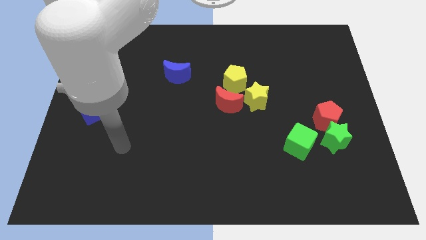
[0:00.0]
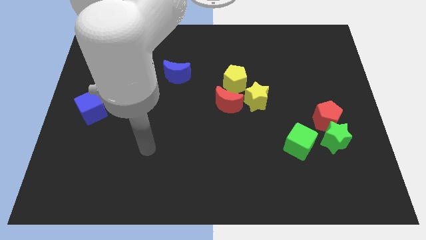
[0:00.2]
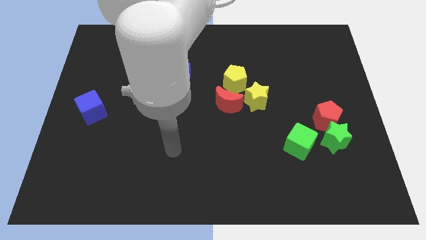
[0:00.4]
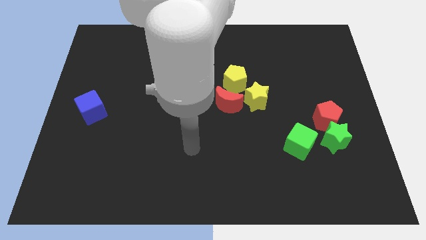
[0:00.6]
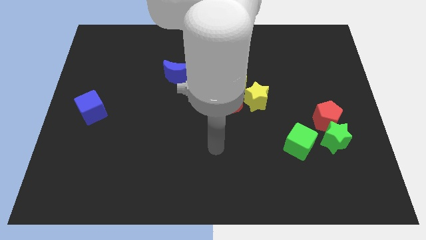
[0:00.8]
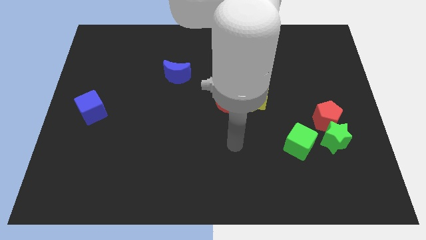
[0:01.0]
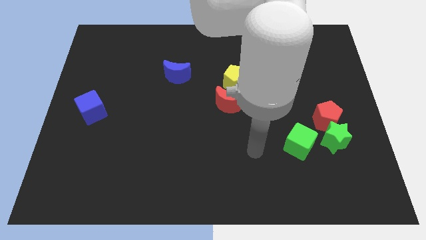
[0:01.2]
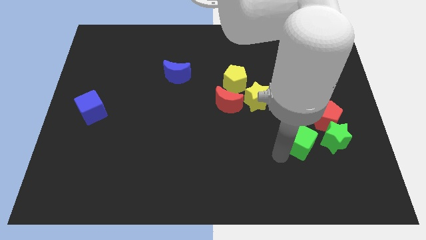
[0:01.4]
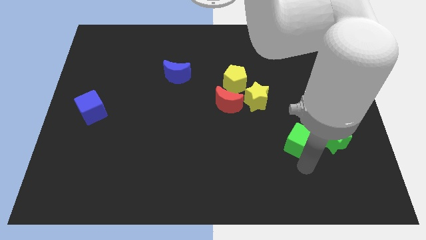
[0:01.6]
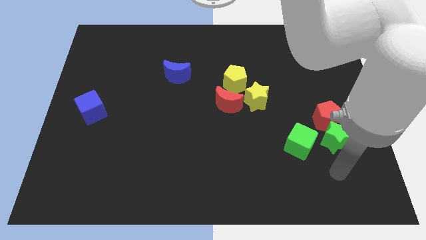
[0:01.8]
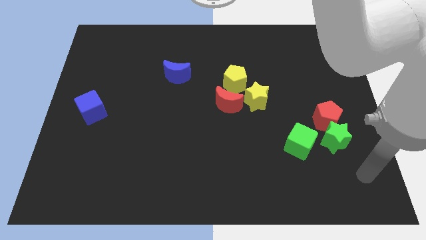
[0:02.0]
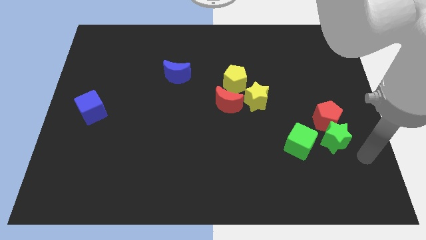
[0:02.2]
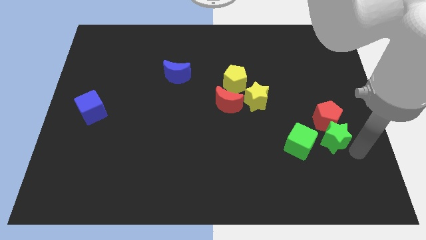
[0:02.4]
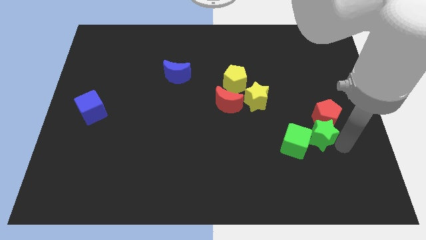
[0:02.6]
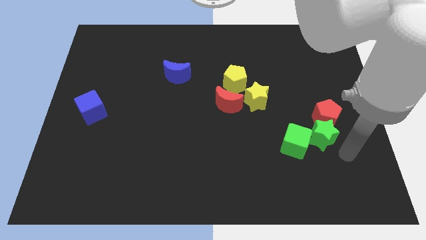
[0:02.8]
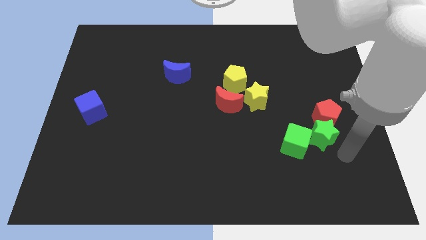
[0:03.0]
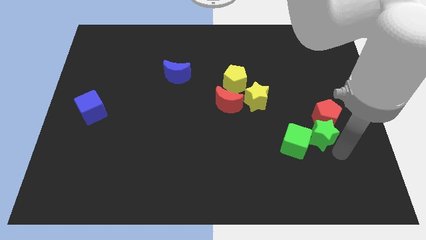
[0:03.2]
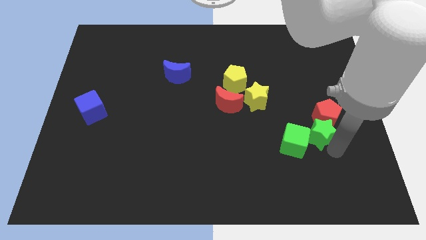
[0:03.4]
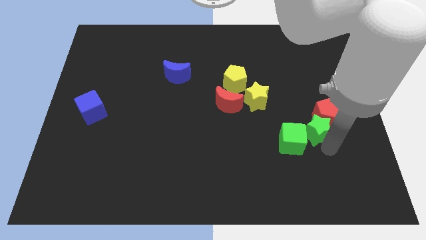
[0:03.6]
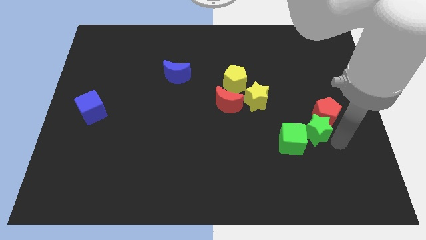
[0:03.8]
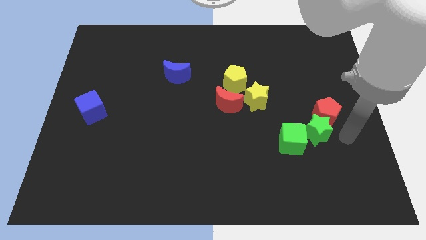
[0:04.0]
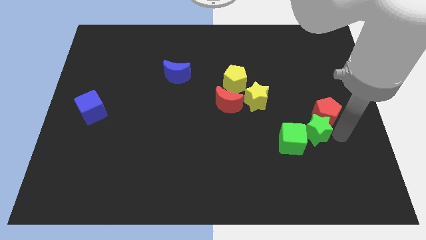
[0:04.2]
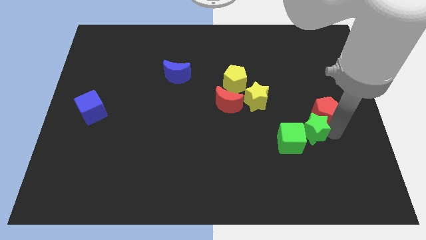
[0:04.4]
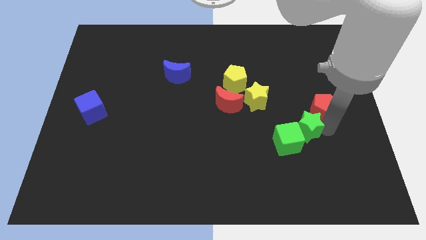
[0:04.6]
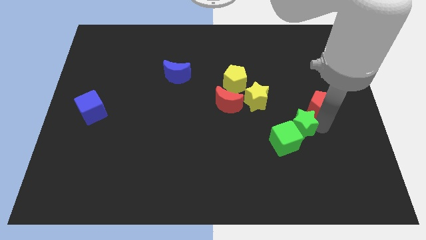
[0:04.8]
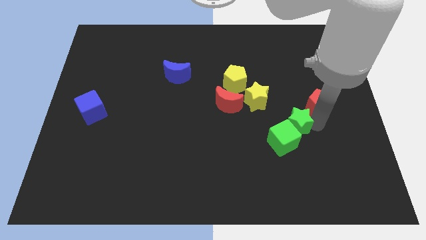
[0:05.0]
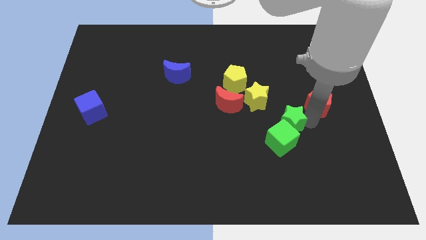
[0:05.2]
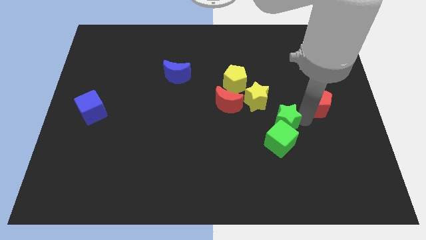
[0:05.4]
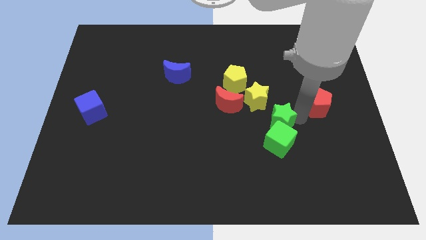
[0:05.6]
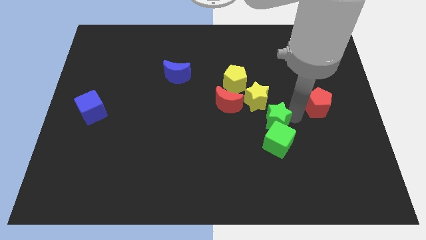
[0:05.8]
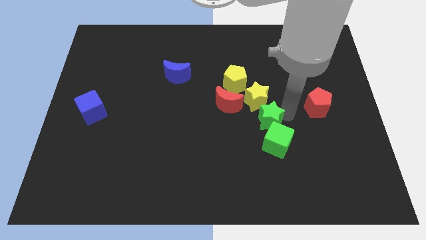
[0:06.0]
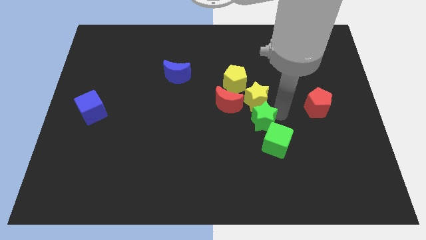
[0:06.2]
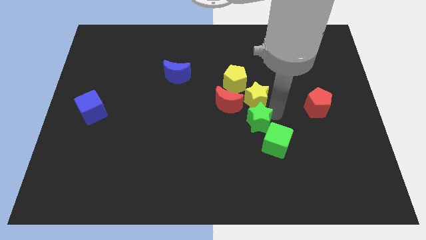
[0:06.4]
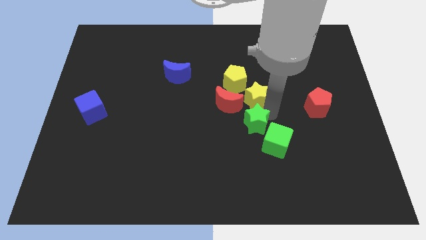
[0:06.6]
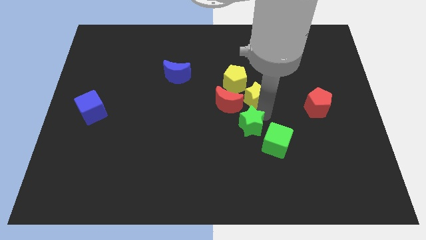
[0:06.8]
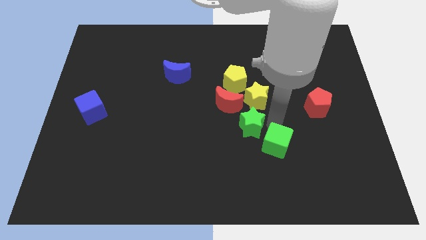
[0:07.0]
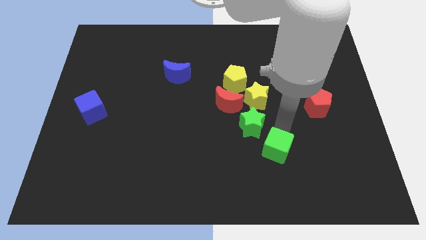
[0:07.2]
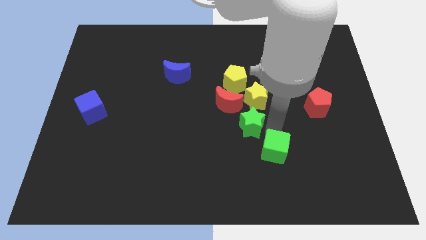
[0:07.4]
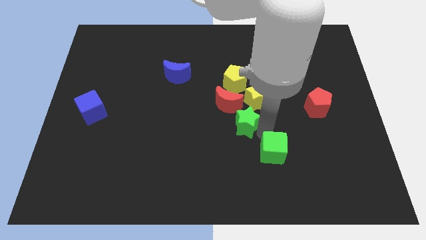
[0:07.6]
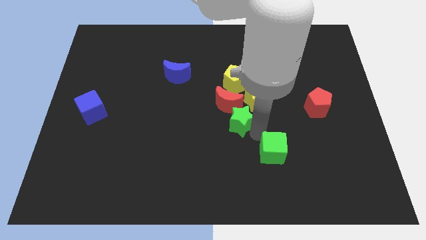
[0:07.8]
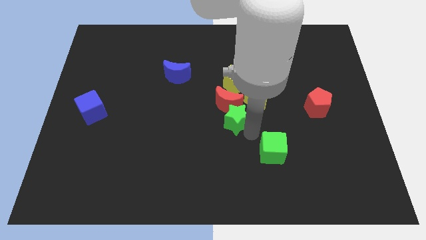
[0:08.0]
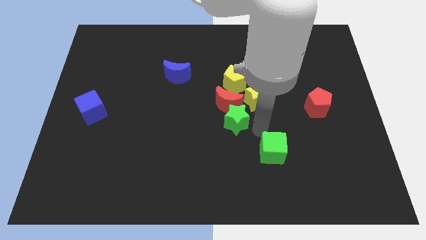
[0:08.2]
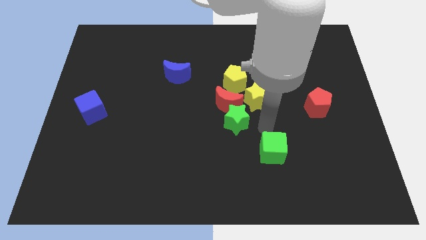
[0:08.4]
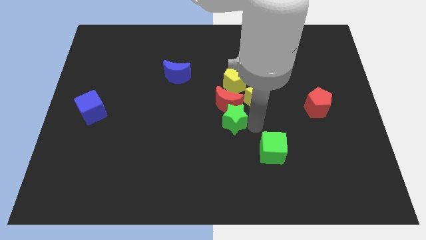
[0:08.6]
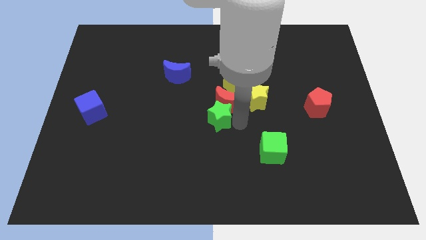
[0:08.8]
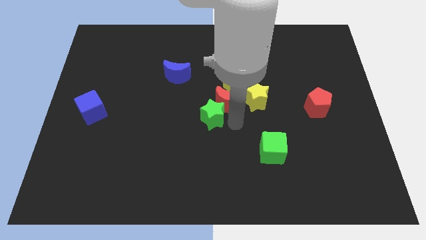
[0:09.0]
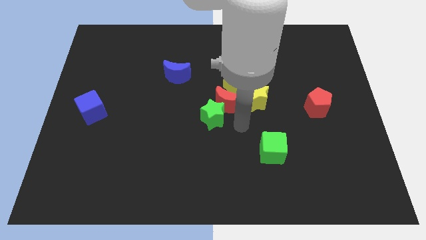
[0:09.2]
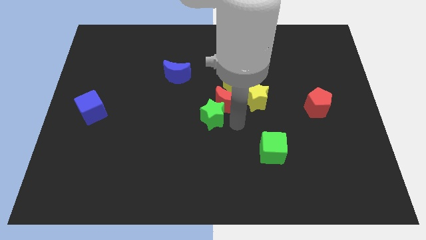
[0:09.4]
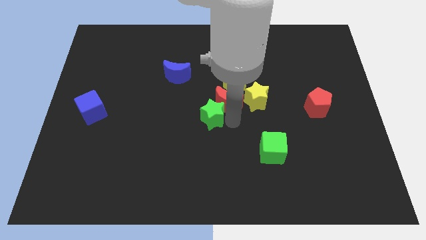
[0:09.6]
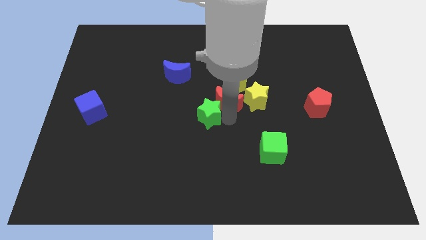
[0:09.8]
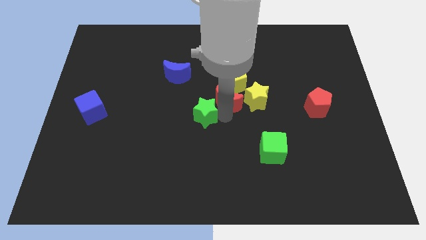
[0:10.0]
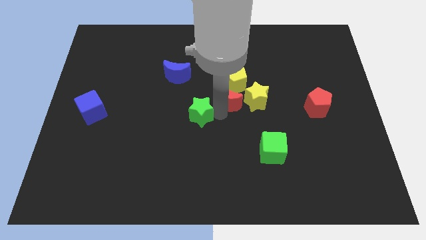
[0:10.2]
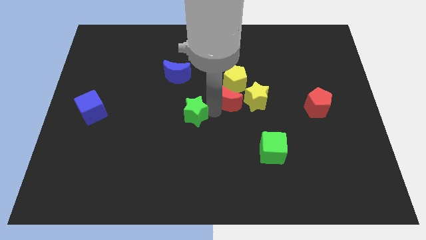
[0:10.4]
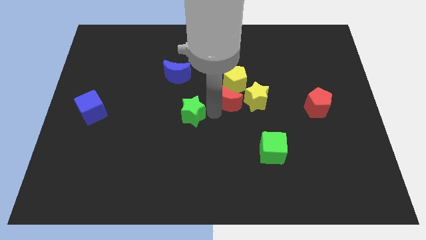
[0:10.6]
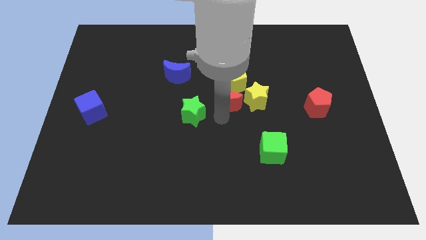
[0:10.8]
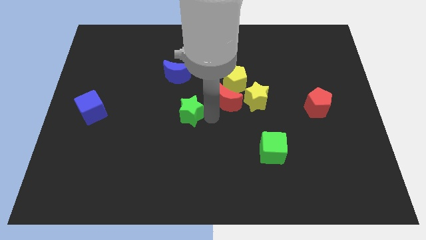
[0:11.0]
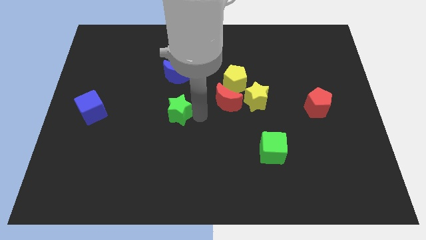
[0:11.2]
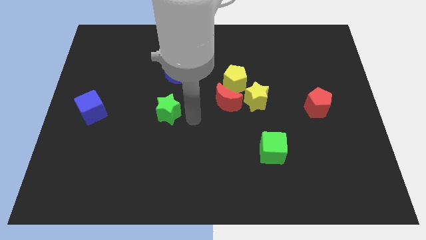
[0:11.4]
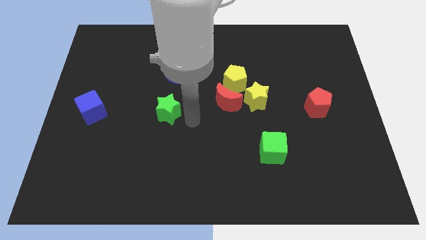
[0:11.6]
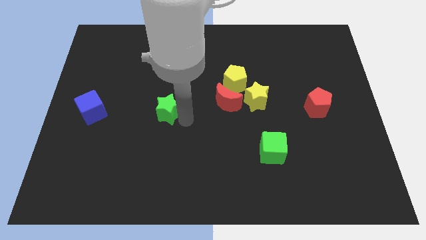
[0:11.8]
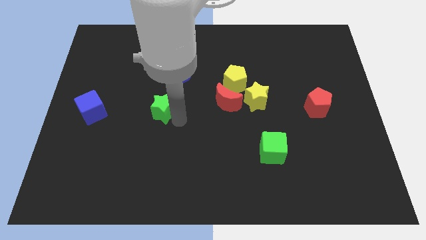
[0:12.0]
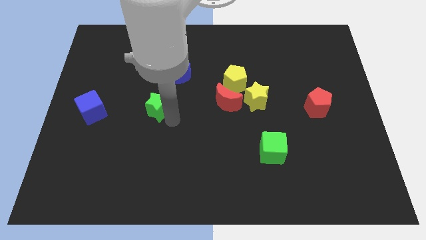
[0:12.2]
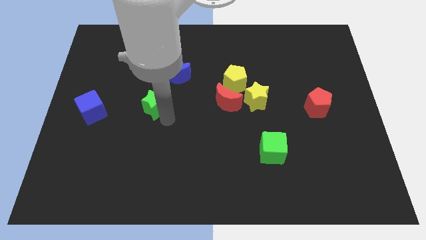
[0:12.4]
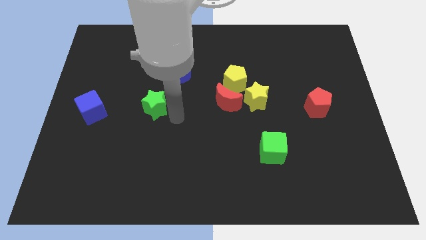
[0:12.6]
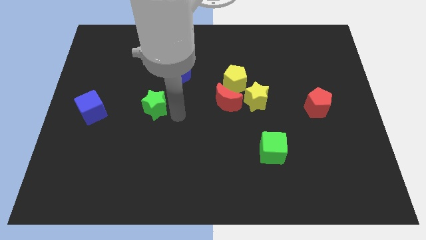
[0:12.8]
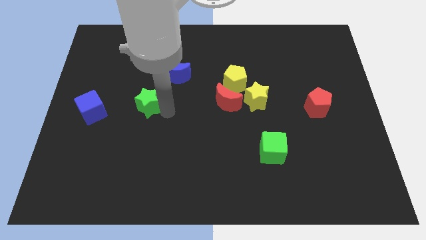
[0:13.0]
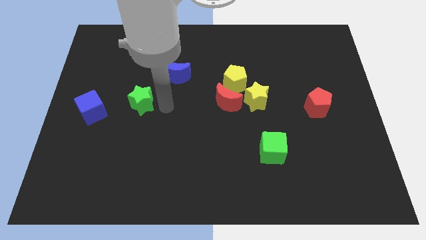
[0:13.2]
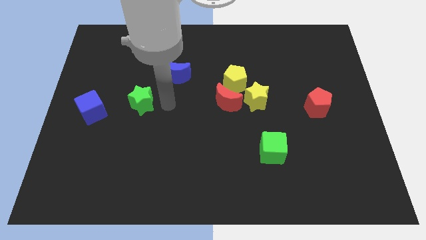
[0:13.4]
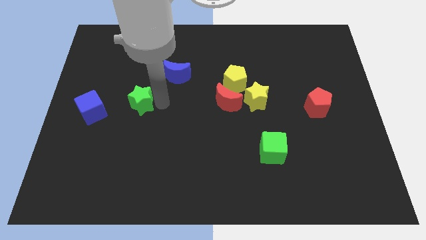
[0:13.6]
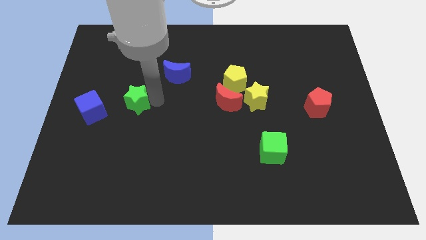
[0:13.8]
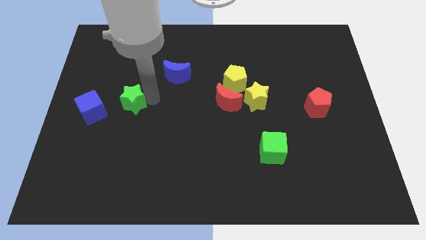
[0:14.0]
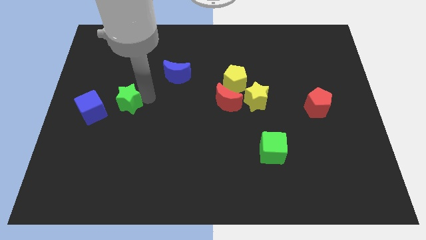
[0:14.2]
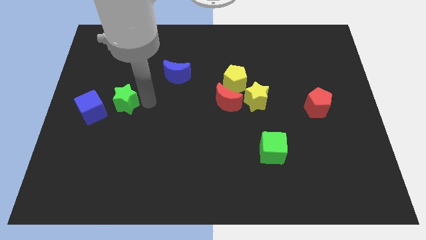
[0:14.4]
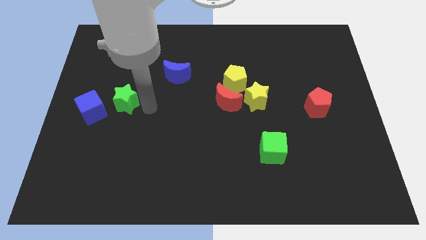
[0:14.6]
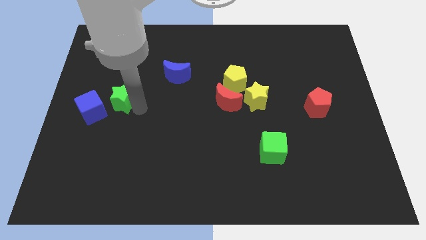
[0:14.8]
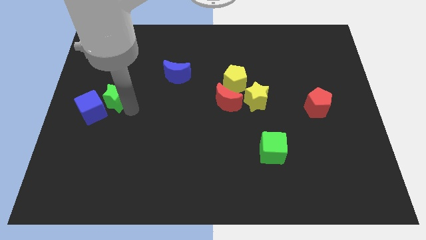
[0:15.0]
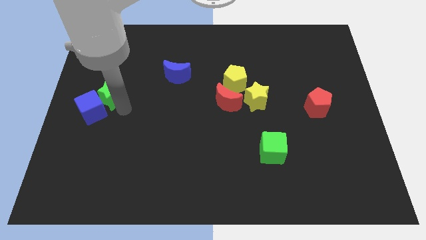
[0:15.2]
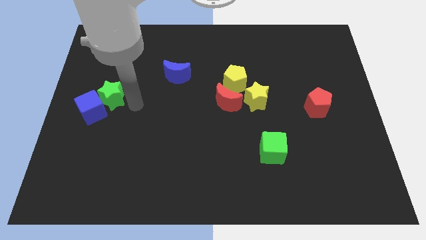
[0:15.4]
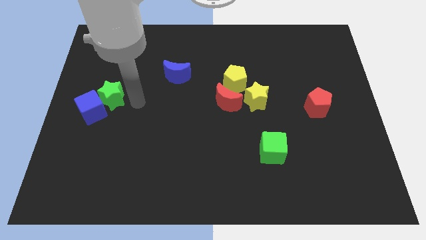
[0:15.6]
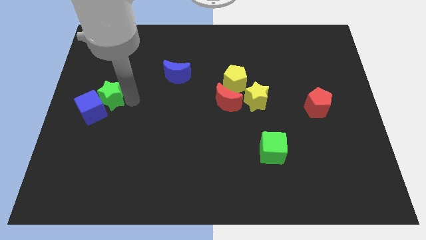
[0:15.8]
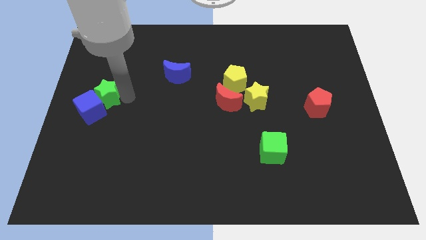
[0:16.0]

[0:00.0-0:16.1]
put the green star to the left side
